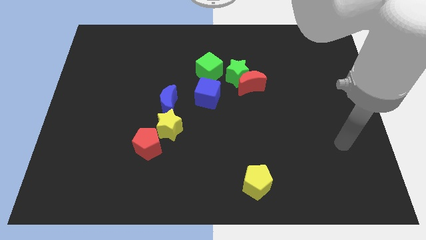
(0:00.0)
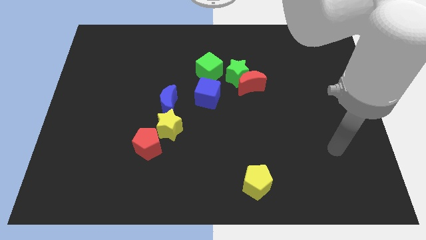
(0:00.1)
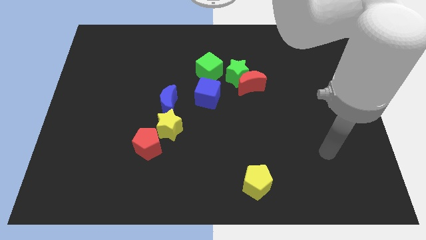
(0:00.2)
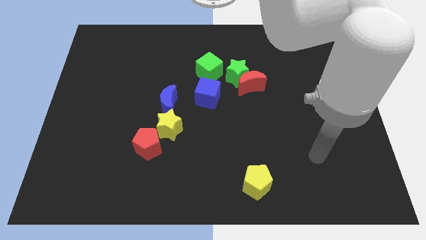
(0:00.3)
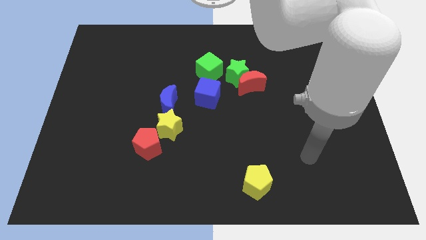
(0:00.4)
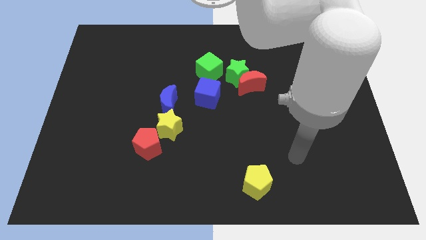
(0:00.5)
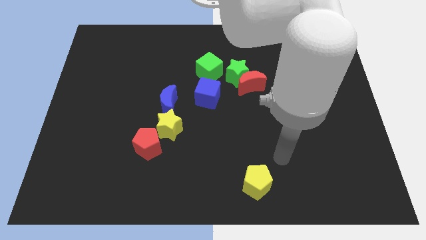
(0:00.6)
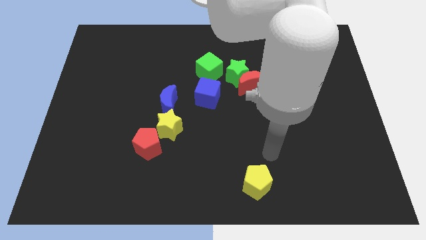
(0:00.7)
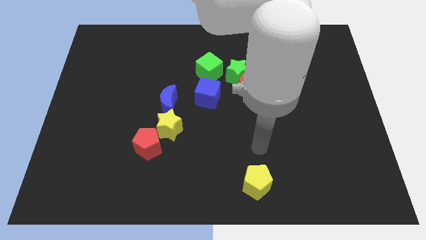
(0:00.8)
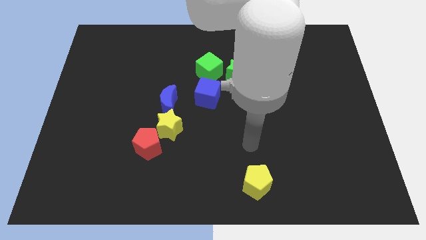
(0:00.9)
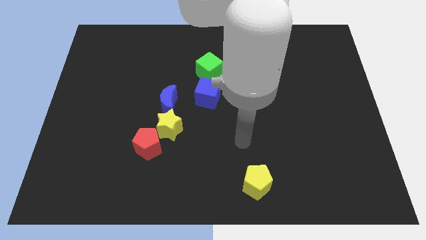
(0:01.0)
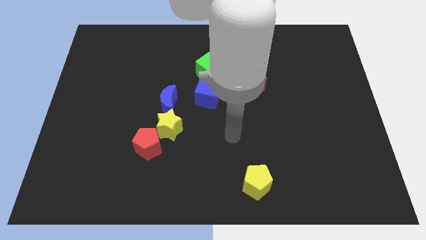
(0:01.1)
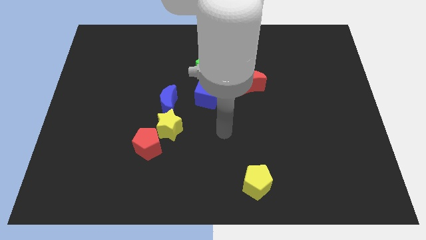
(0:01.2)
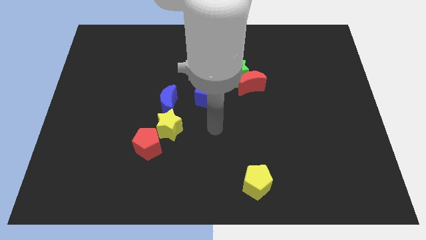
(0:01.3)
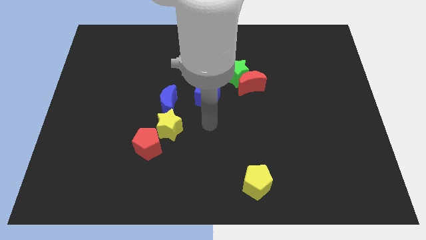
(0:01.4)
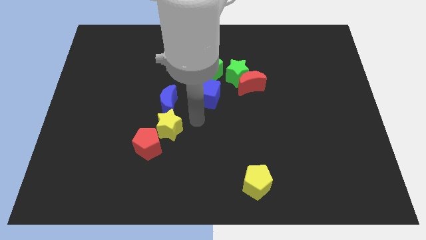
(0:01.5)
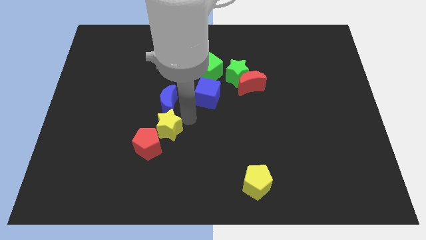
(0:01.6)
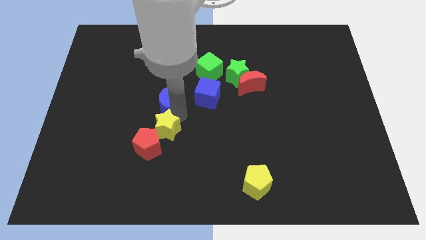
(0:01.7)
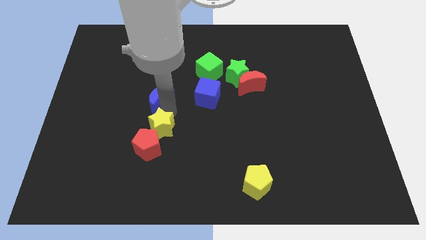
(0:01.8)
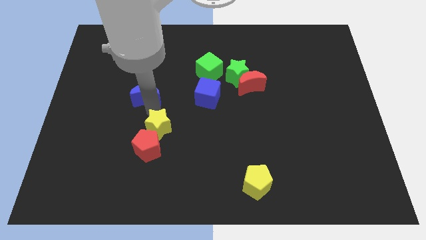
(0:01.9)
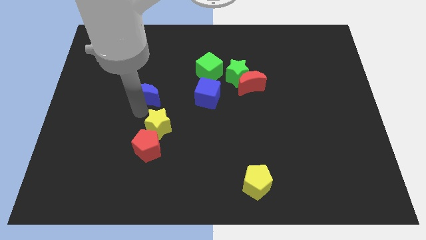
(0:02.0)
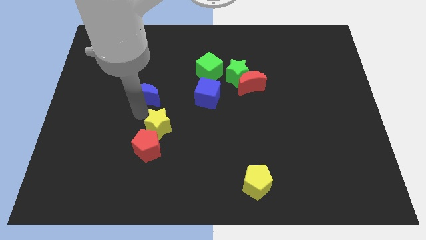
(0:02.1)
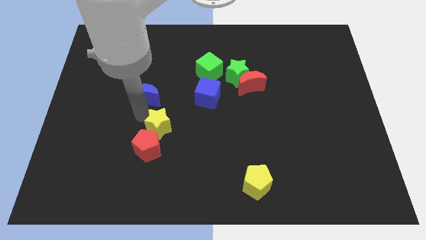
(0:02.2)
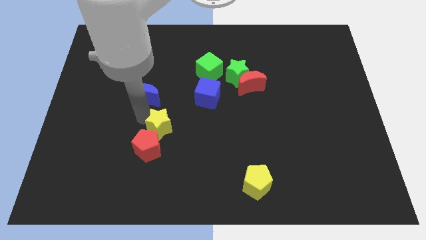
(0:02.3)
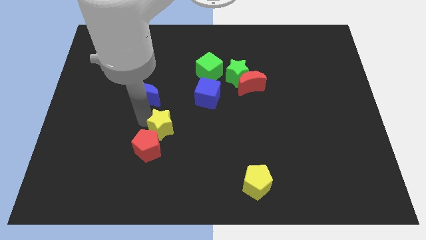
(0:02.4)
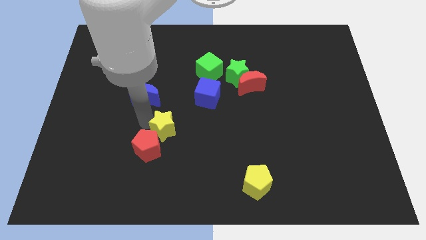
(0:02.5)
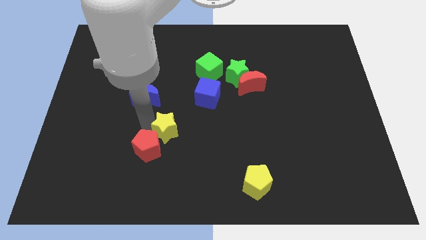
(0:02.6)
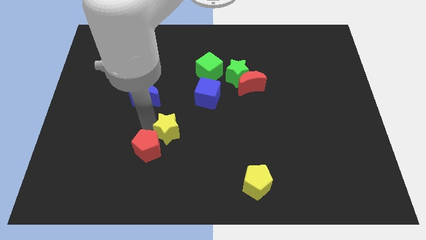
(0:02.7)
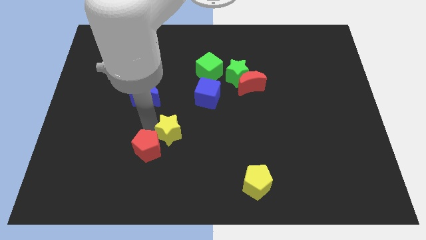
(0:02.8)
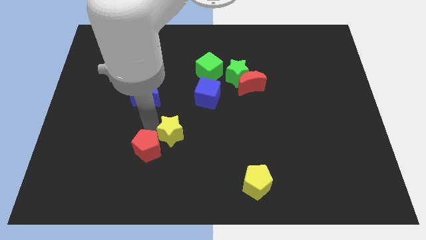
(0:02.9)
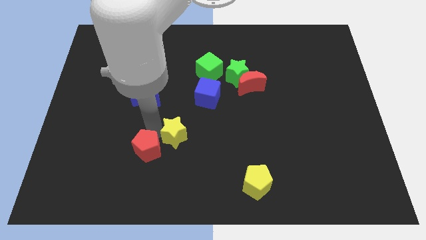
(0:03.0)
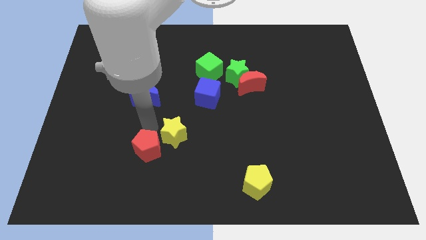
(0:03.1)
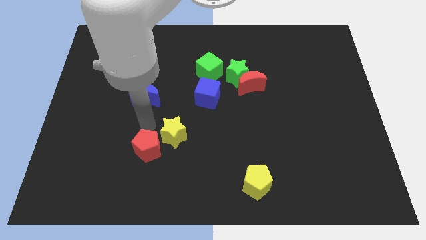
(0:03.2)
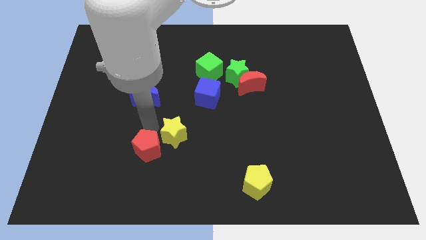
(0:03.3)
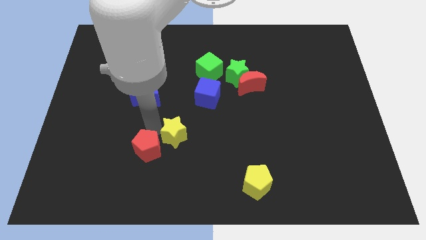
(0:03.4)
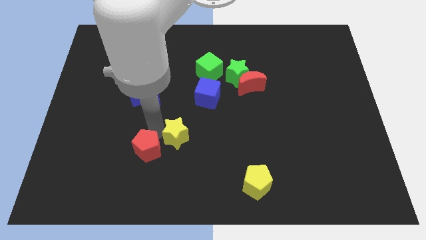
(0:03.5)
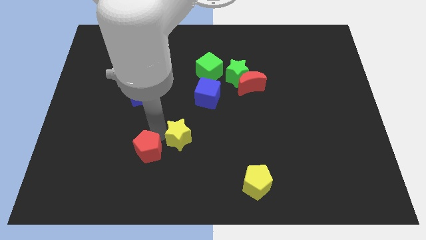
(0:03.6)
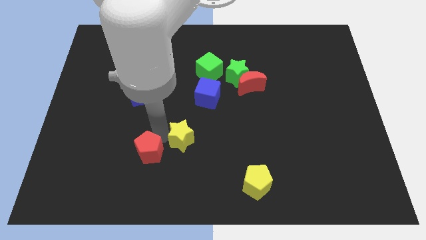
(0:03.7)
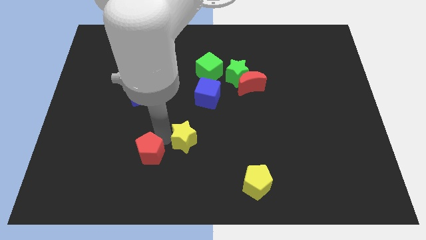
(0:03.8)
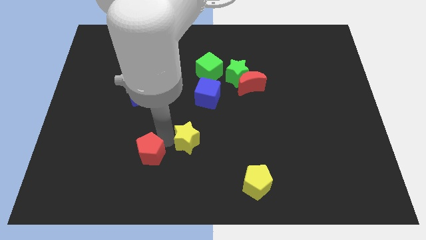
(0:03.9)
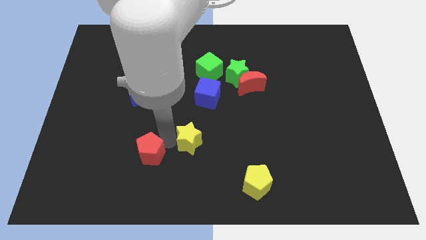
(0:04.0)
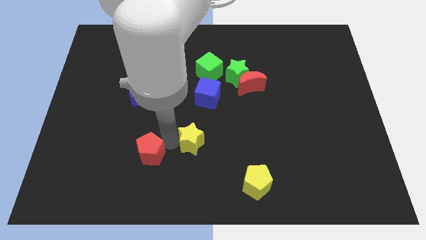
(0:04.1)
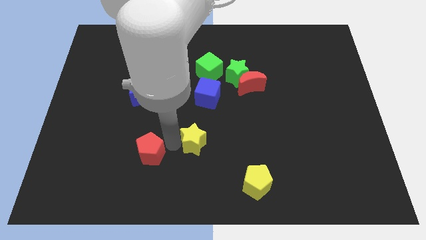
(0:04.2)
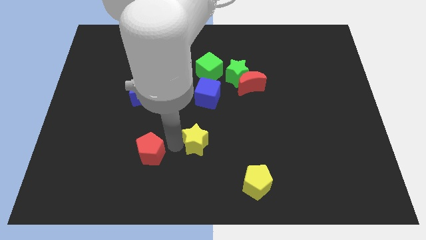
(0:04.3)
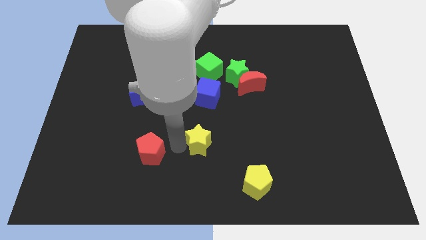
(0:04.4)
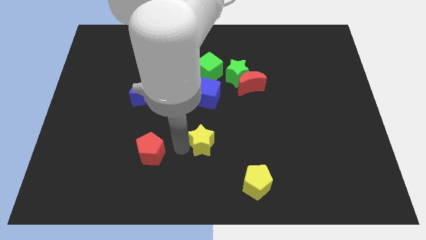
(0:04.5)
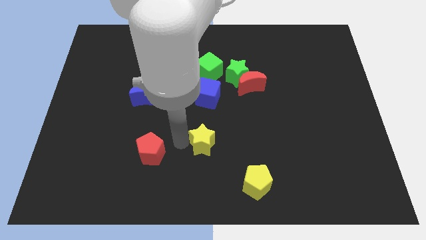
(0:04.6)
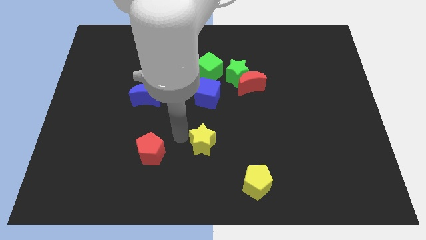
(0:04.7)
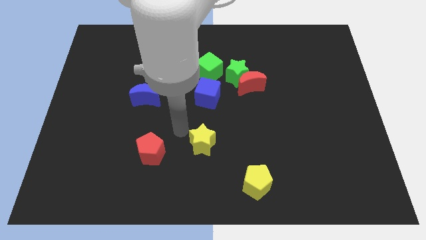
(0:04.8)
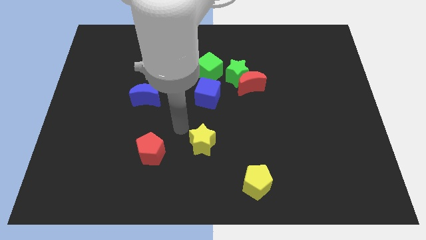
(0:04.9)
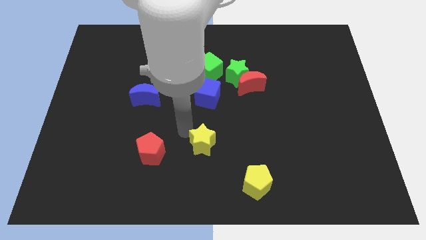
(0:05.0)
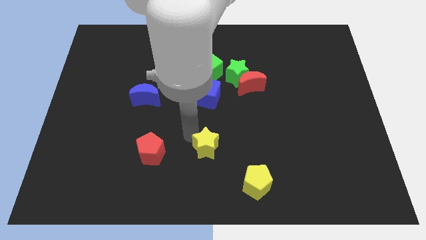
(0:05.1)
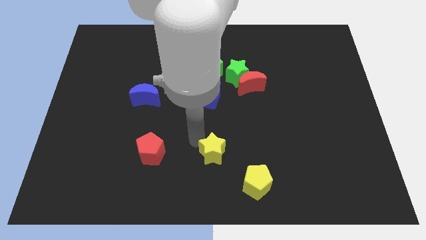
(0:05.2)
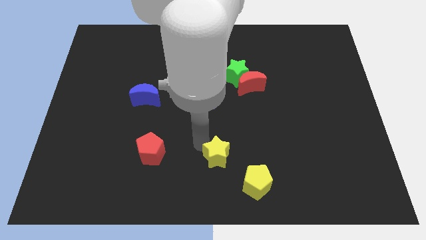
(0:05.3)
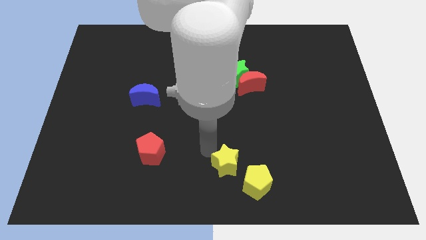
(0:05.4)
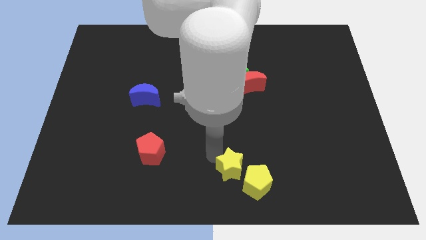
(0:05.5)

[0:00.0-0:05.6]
slide the yellow star close to the yellow pentagon

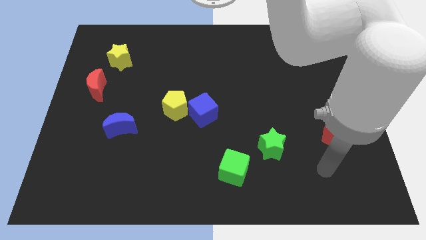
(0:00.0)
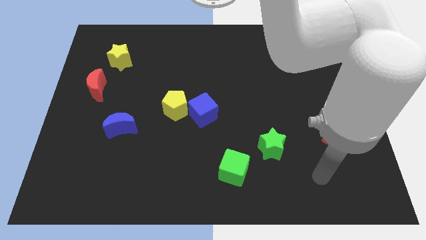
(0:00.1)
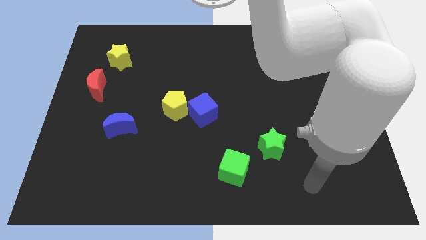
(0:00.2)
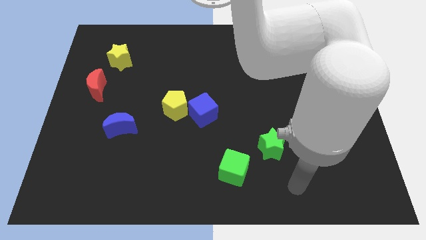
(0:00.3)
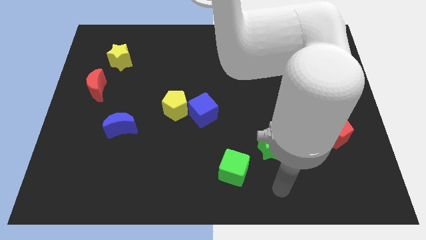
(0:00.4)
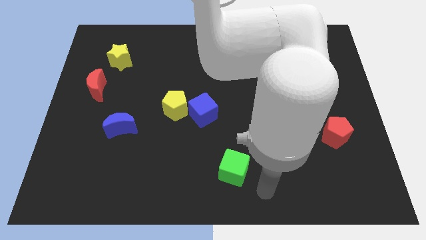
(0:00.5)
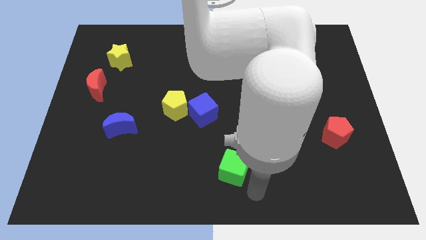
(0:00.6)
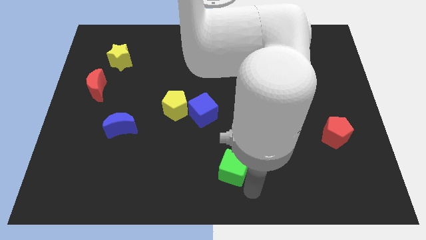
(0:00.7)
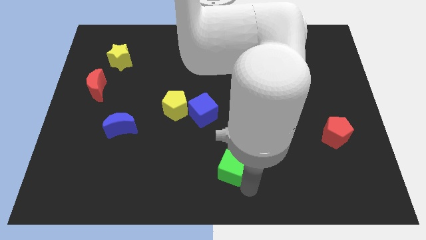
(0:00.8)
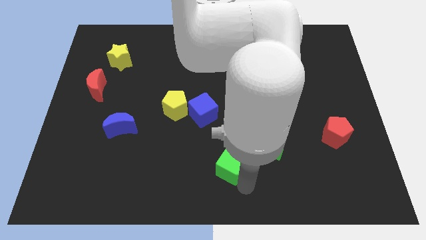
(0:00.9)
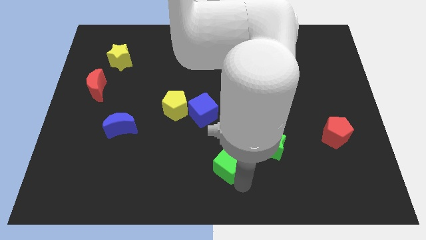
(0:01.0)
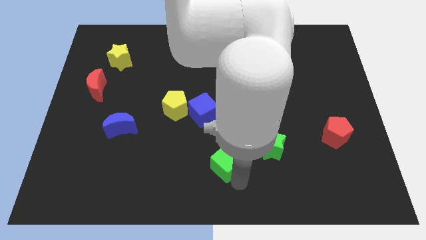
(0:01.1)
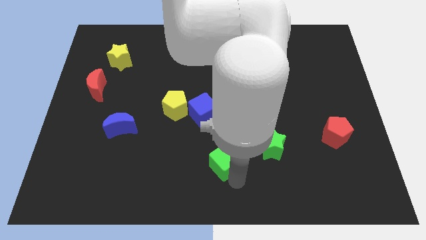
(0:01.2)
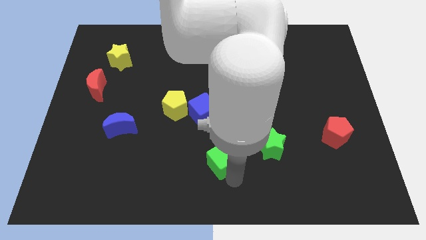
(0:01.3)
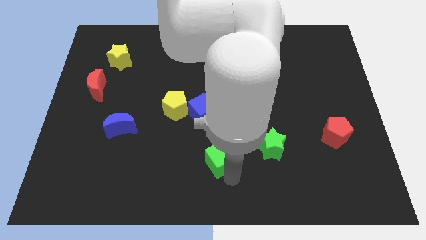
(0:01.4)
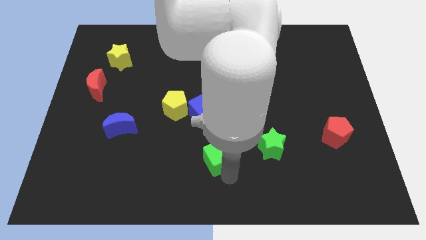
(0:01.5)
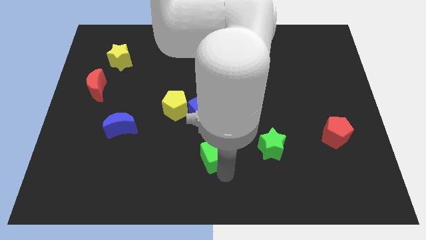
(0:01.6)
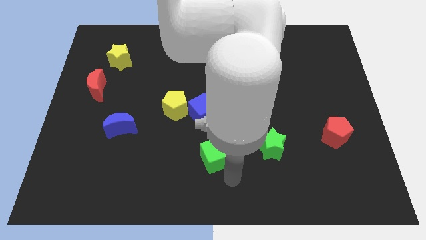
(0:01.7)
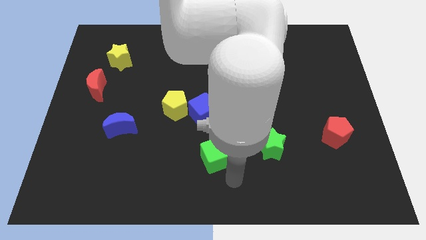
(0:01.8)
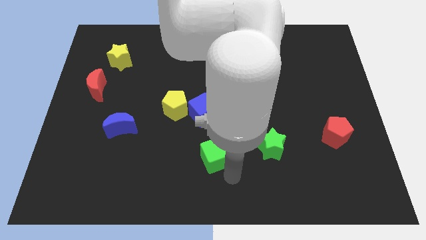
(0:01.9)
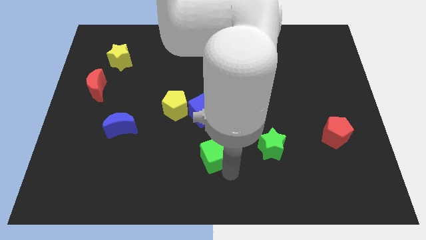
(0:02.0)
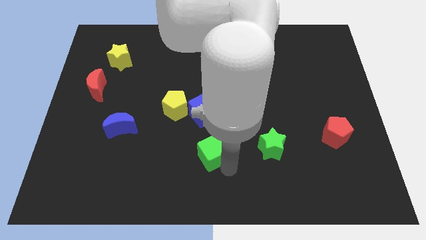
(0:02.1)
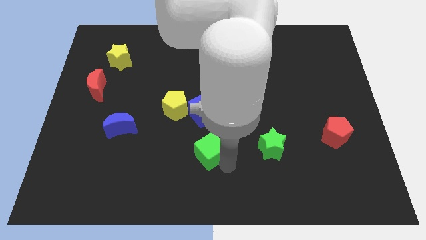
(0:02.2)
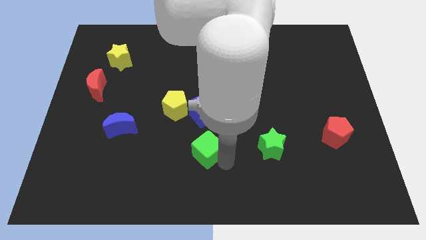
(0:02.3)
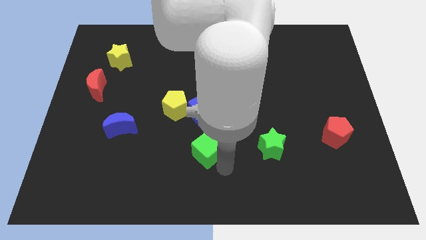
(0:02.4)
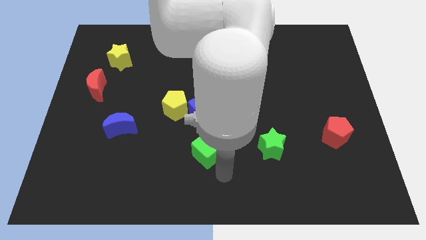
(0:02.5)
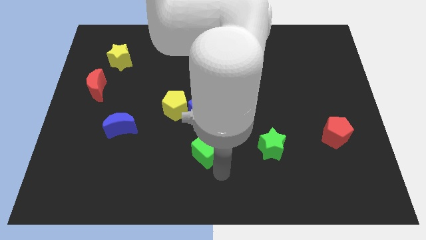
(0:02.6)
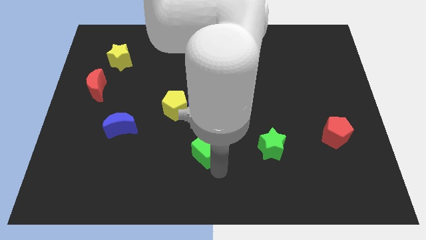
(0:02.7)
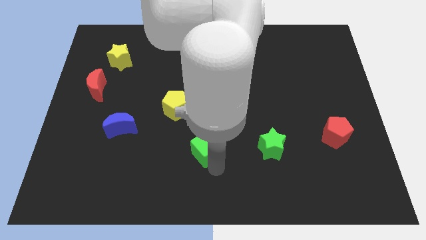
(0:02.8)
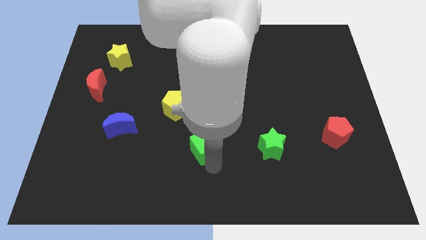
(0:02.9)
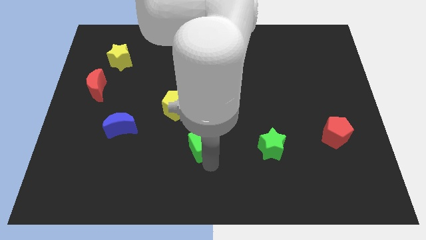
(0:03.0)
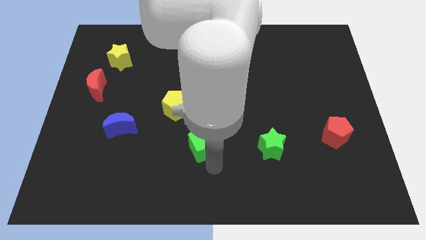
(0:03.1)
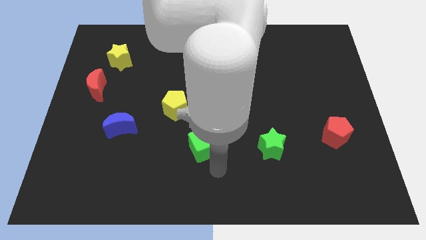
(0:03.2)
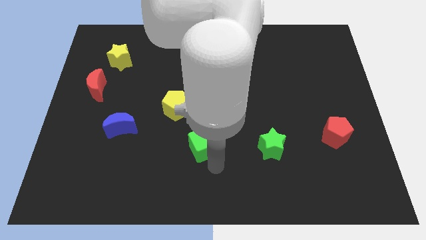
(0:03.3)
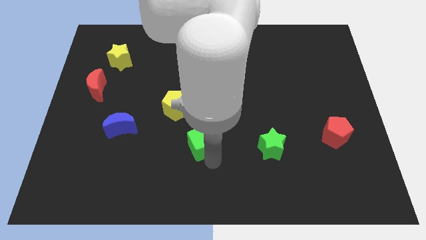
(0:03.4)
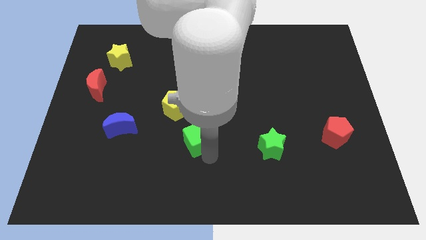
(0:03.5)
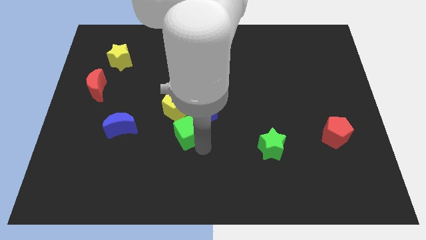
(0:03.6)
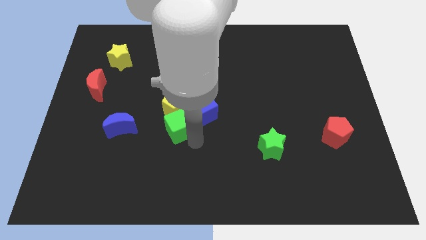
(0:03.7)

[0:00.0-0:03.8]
put the green cube to the yellow pentagon
